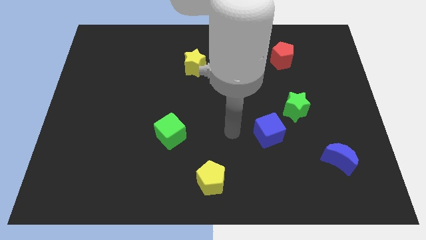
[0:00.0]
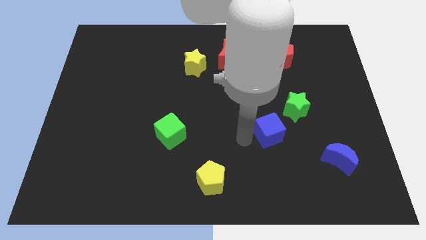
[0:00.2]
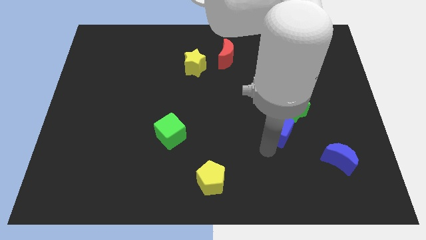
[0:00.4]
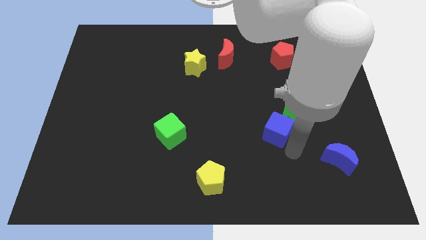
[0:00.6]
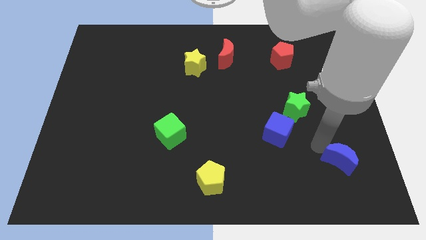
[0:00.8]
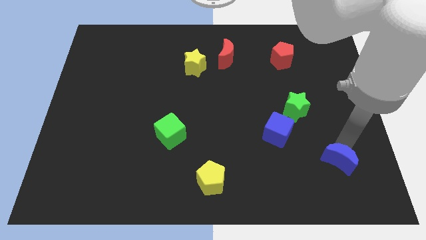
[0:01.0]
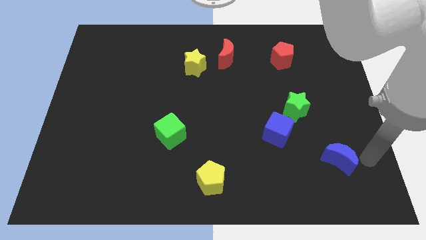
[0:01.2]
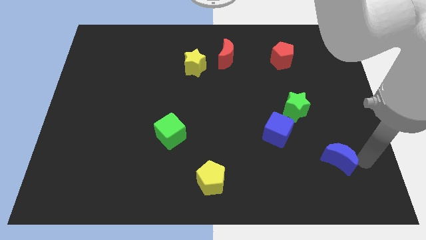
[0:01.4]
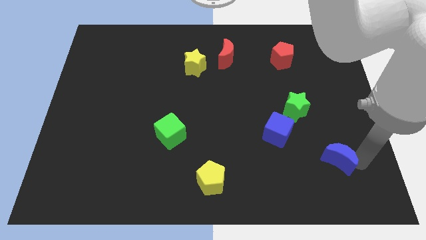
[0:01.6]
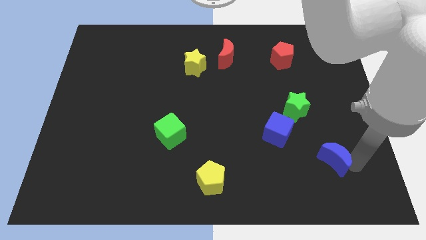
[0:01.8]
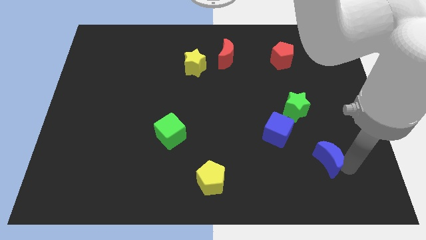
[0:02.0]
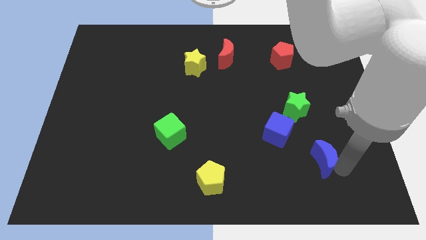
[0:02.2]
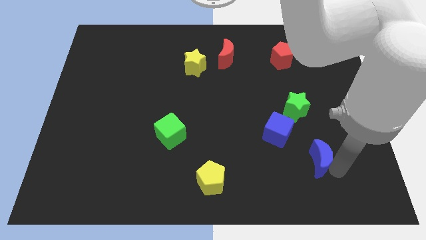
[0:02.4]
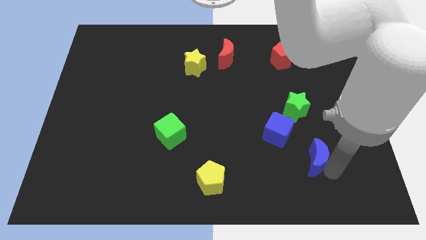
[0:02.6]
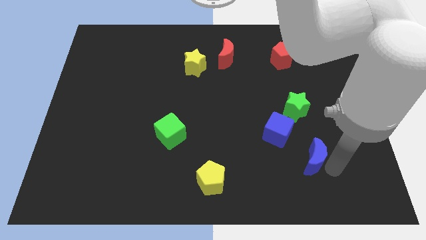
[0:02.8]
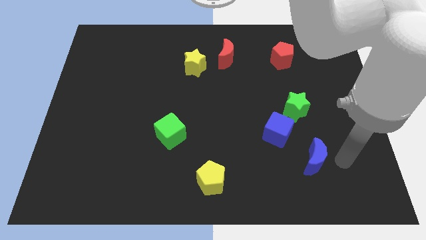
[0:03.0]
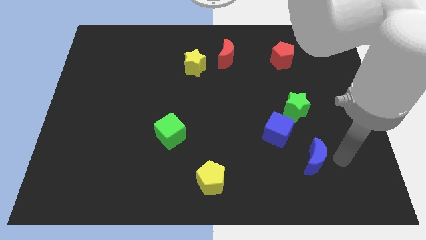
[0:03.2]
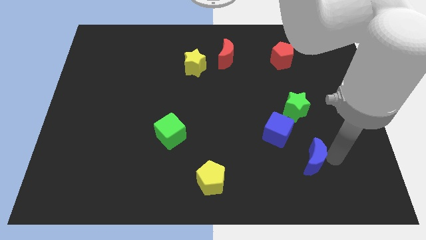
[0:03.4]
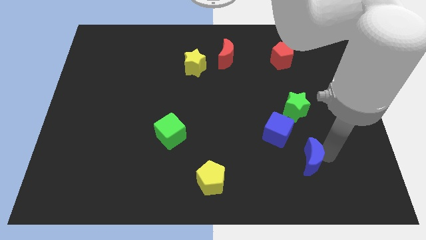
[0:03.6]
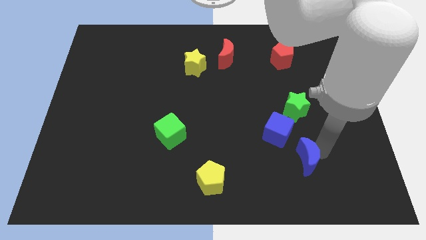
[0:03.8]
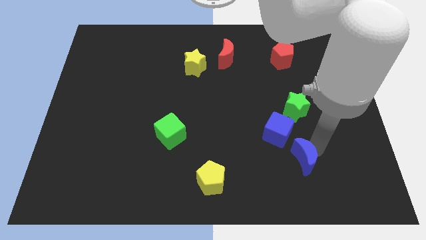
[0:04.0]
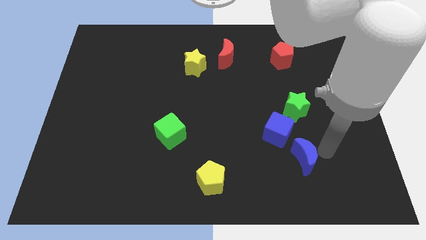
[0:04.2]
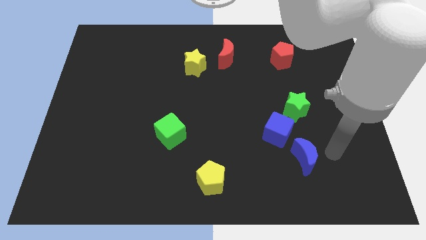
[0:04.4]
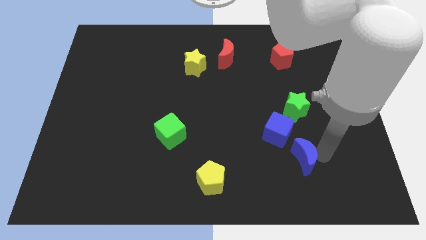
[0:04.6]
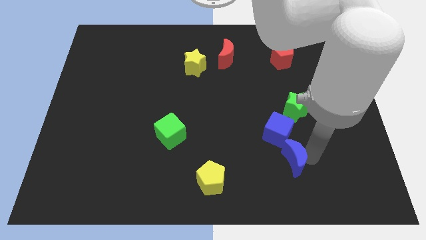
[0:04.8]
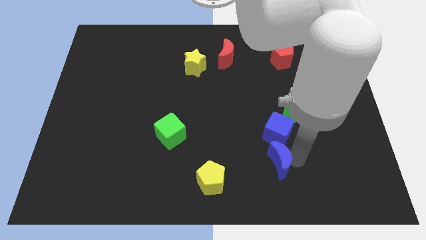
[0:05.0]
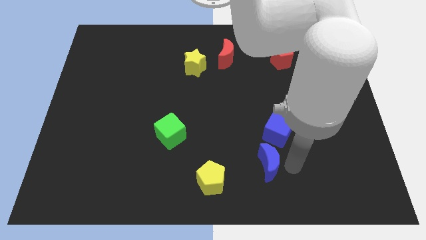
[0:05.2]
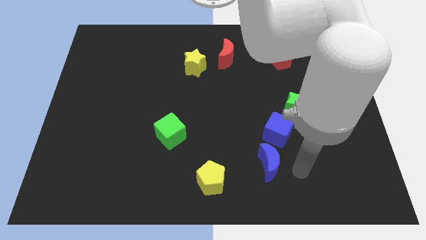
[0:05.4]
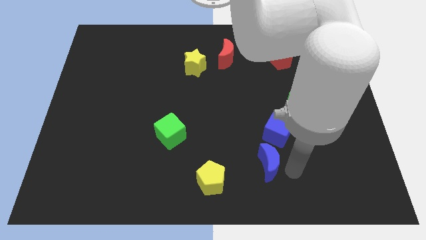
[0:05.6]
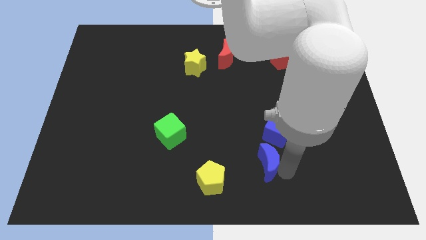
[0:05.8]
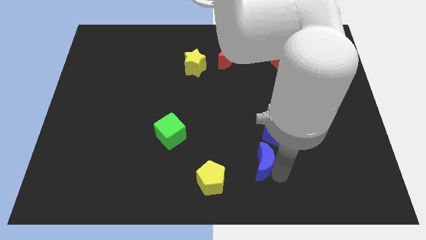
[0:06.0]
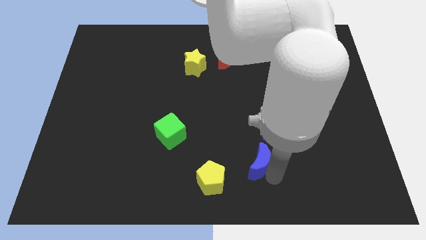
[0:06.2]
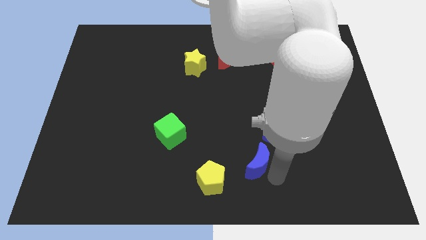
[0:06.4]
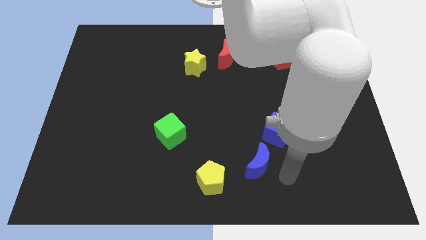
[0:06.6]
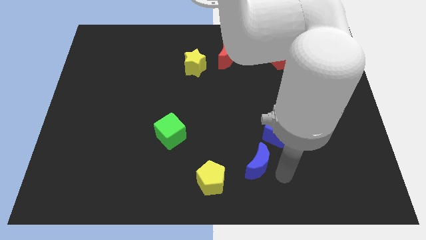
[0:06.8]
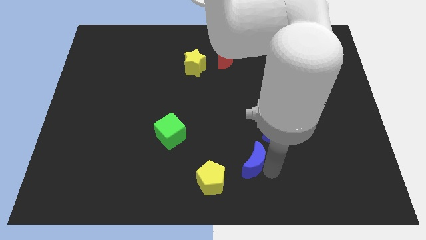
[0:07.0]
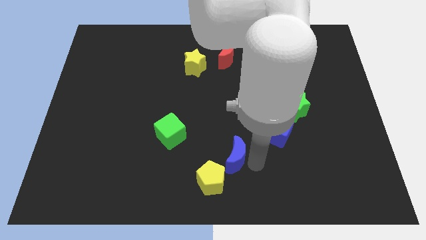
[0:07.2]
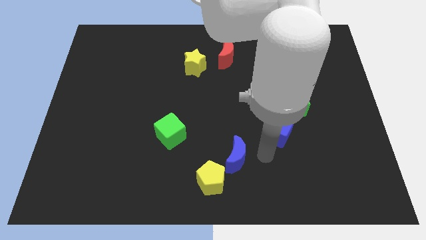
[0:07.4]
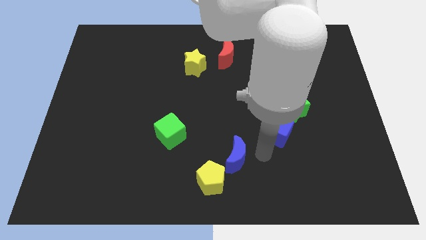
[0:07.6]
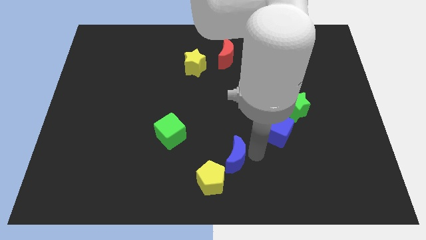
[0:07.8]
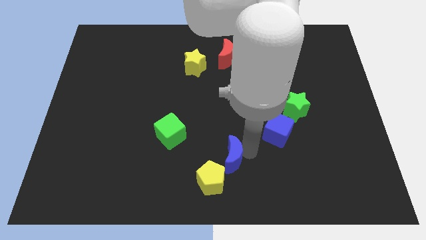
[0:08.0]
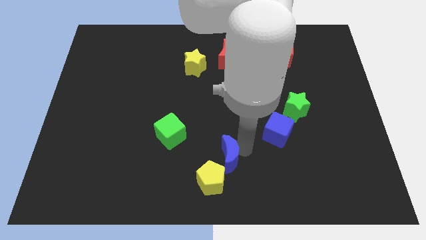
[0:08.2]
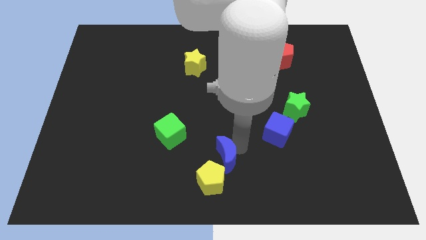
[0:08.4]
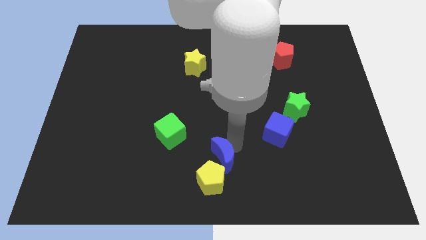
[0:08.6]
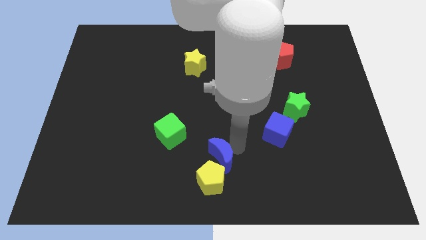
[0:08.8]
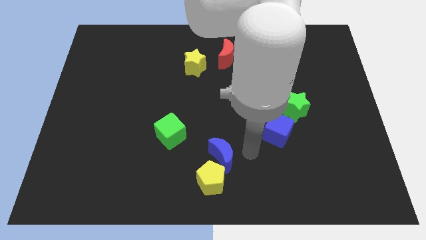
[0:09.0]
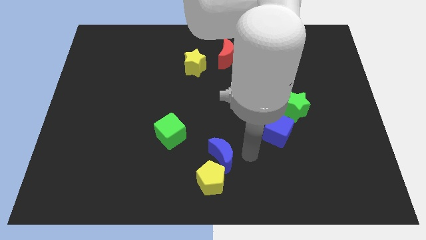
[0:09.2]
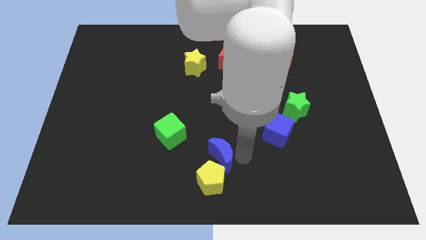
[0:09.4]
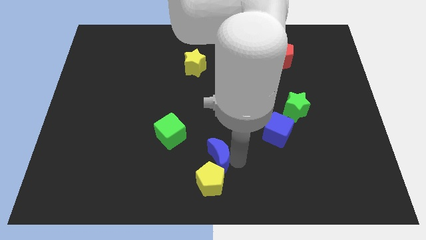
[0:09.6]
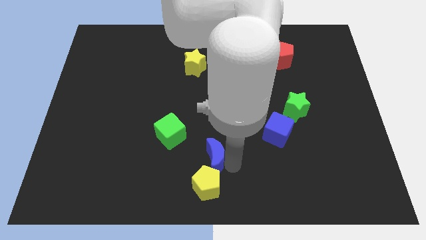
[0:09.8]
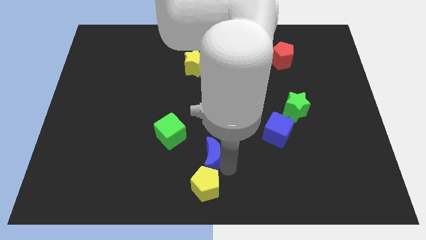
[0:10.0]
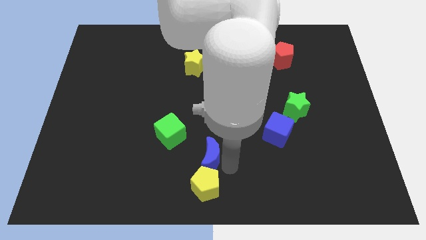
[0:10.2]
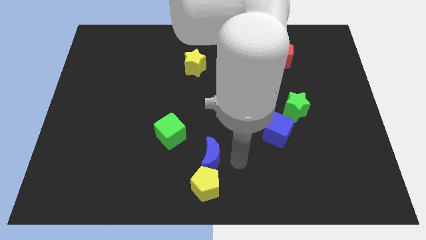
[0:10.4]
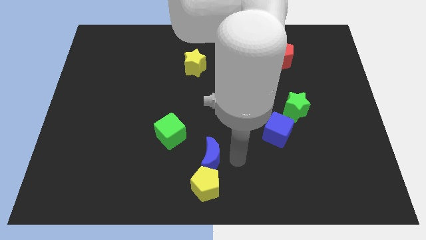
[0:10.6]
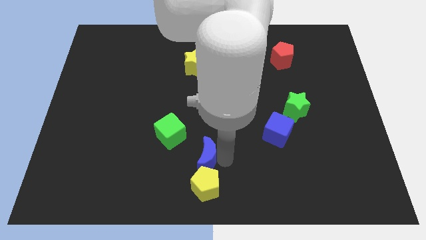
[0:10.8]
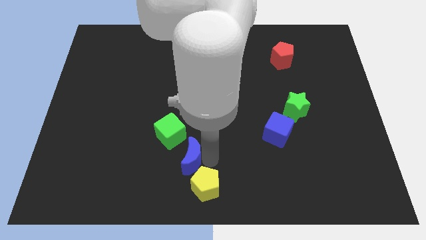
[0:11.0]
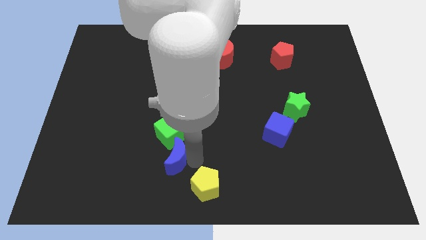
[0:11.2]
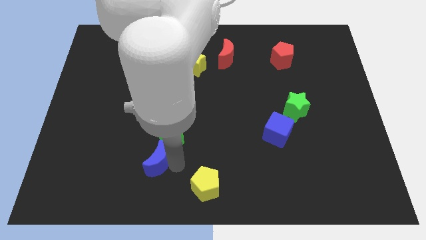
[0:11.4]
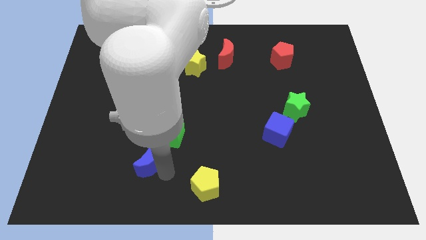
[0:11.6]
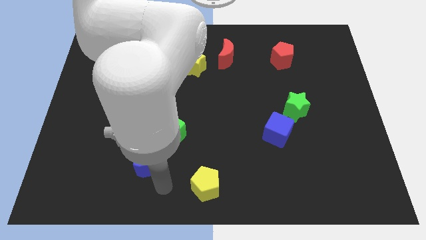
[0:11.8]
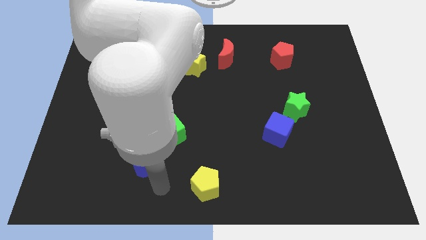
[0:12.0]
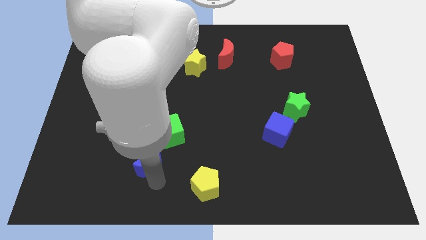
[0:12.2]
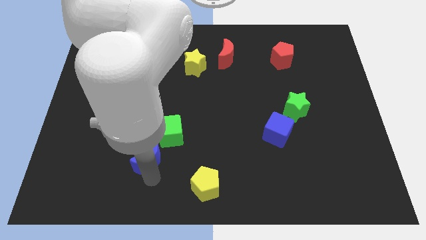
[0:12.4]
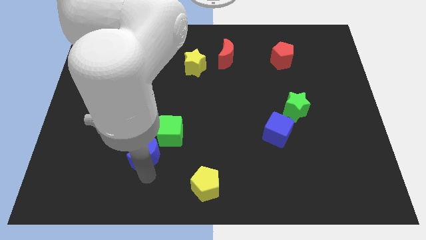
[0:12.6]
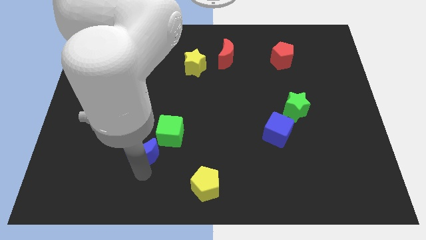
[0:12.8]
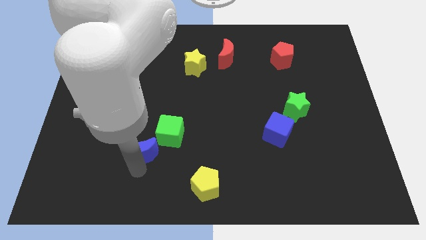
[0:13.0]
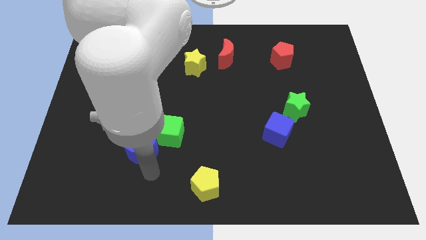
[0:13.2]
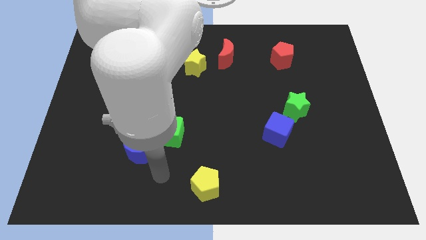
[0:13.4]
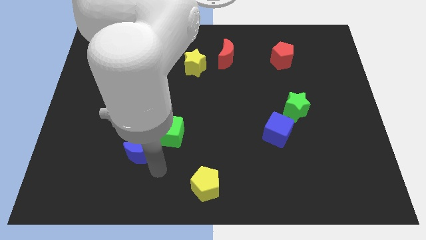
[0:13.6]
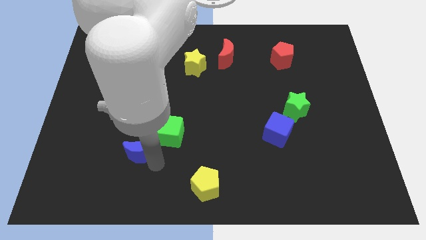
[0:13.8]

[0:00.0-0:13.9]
put the blue moon to the left of the green cube
